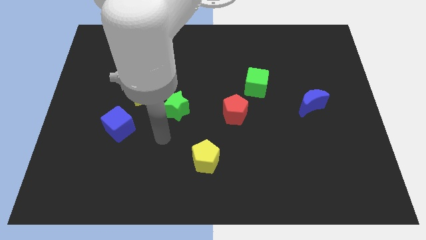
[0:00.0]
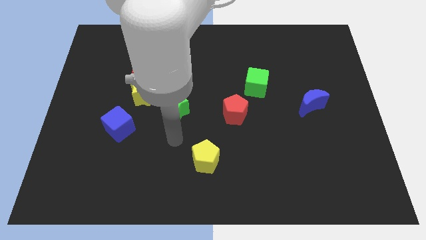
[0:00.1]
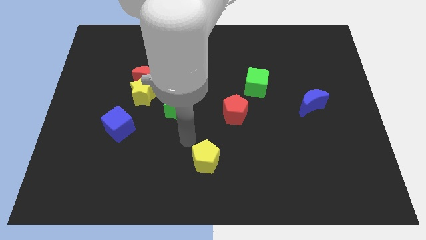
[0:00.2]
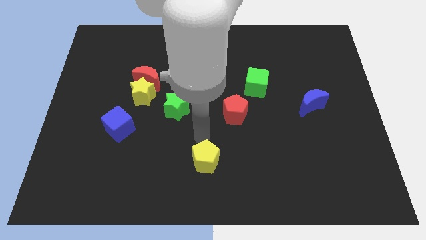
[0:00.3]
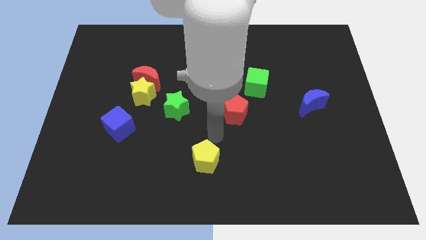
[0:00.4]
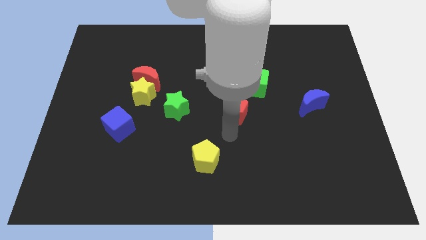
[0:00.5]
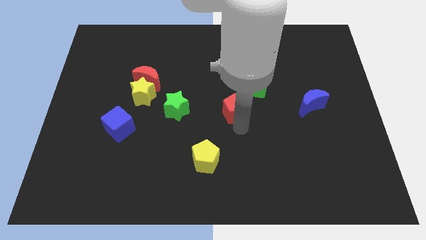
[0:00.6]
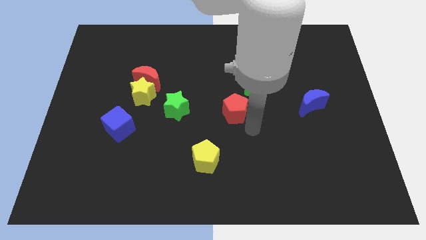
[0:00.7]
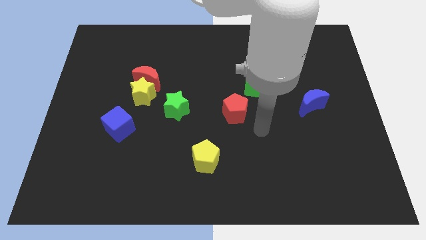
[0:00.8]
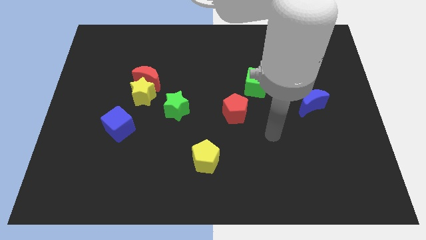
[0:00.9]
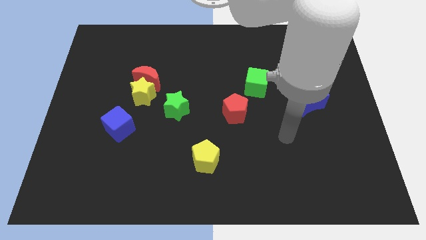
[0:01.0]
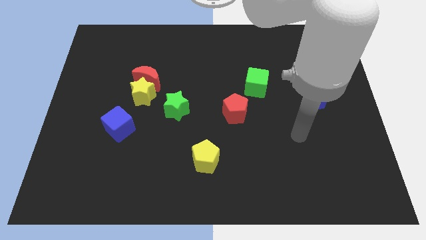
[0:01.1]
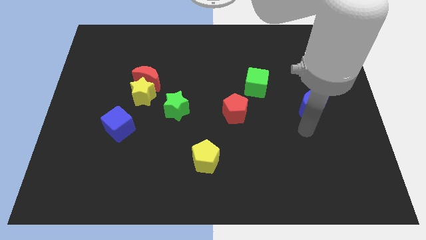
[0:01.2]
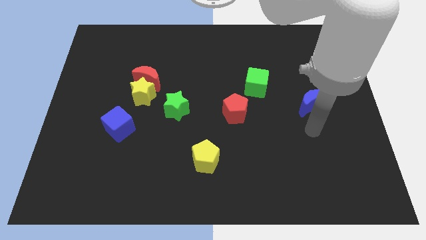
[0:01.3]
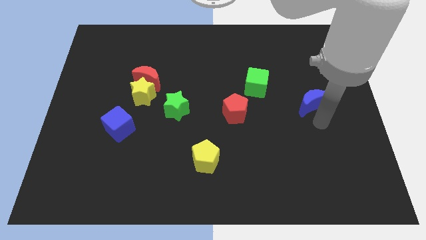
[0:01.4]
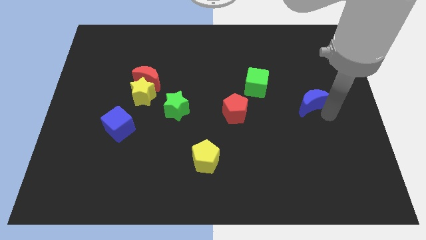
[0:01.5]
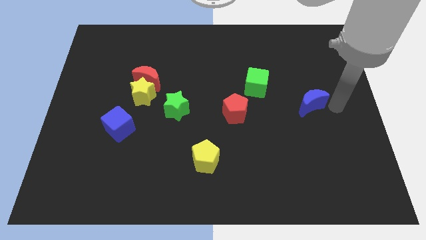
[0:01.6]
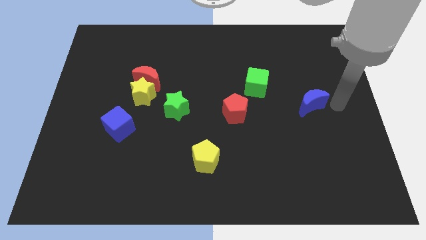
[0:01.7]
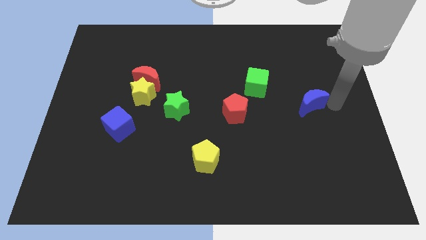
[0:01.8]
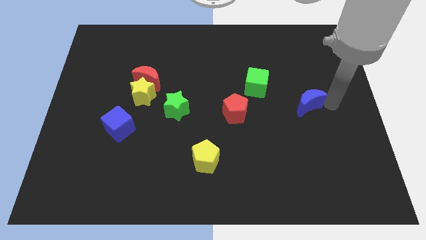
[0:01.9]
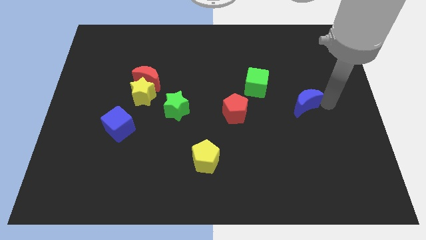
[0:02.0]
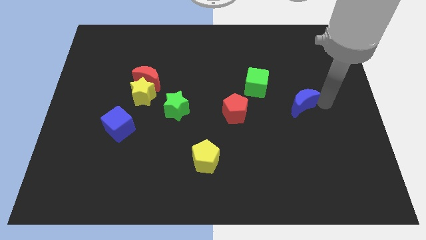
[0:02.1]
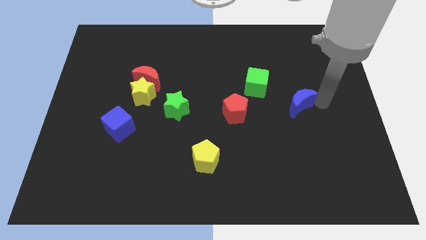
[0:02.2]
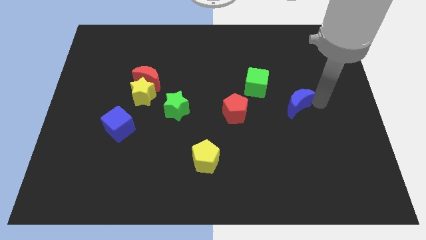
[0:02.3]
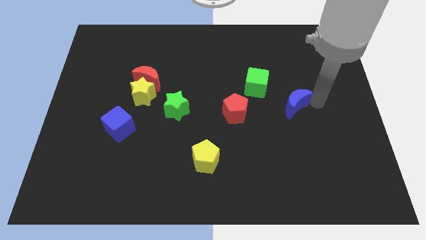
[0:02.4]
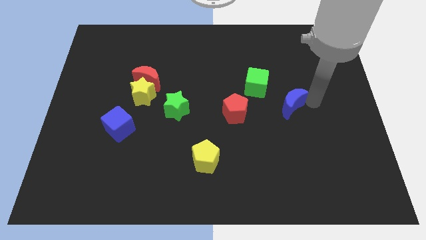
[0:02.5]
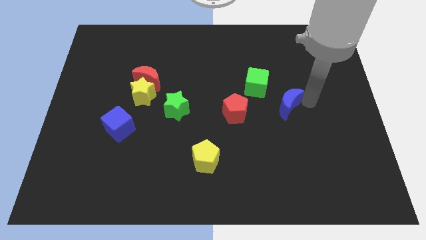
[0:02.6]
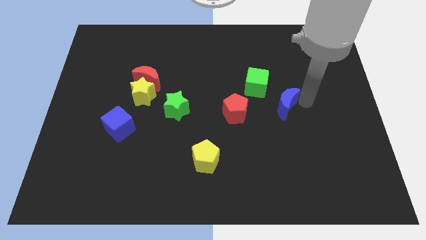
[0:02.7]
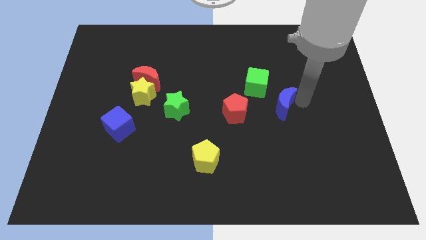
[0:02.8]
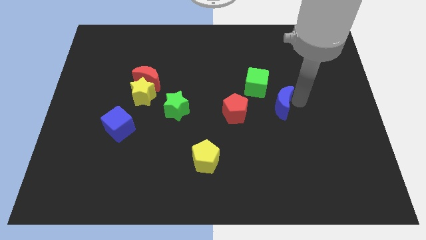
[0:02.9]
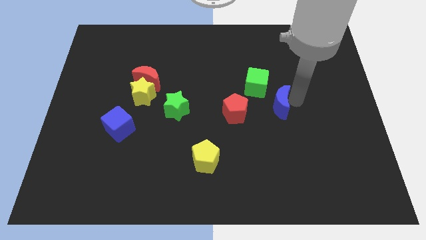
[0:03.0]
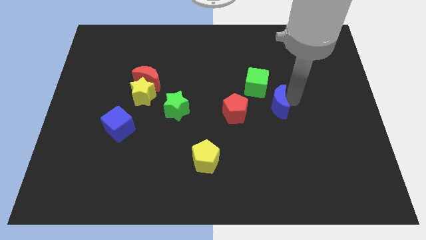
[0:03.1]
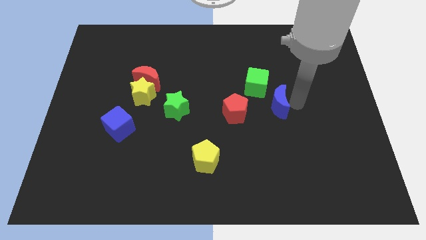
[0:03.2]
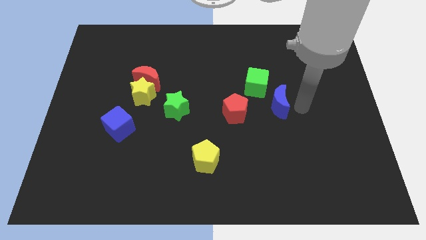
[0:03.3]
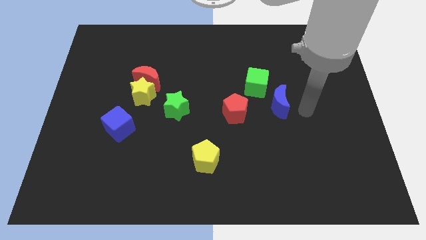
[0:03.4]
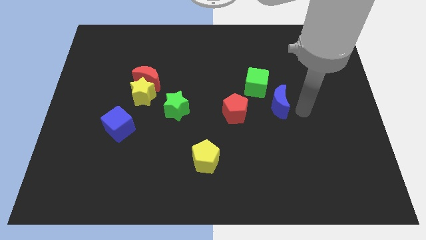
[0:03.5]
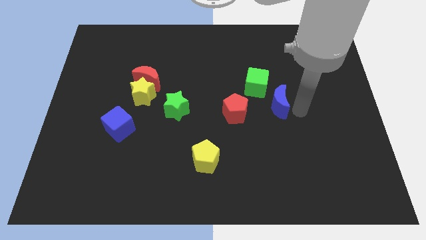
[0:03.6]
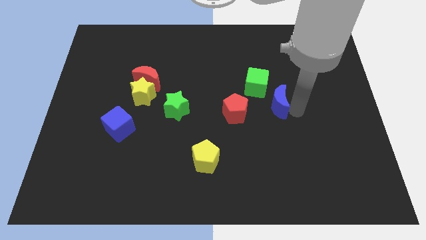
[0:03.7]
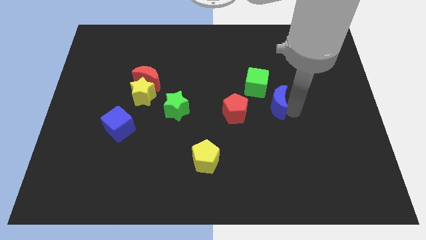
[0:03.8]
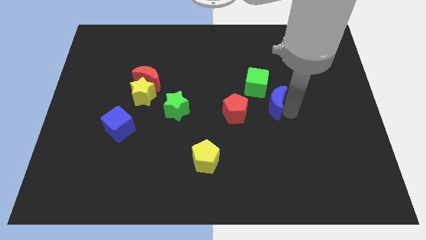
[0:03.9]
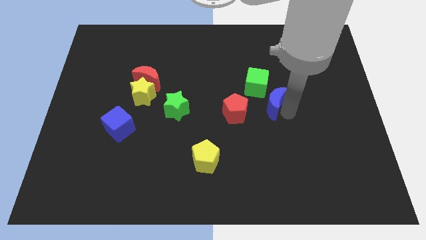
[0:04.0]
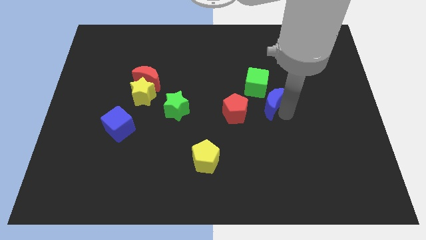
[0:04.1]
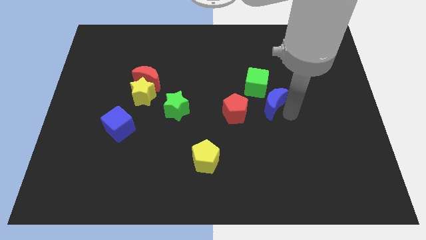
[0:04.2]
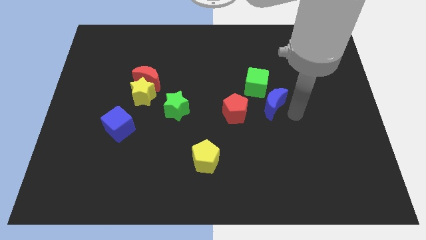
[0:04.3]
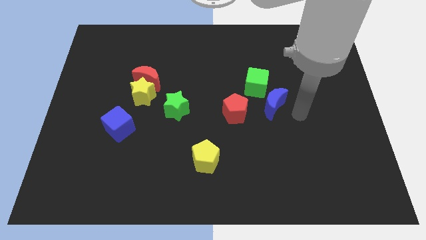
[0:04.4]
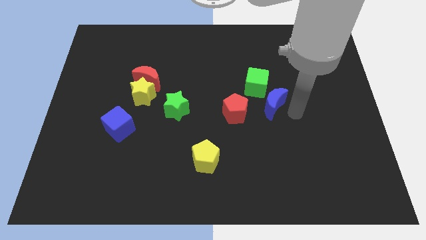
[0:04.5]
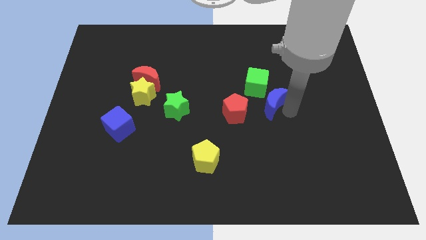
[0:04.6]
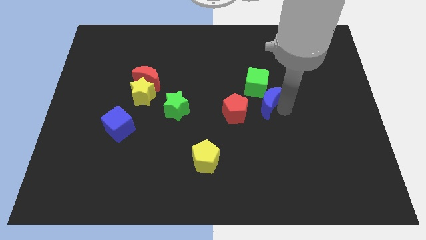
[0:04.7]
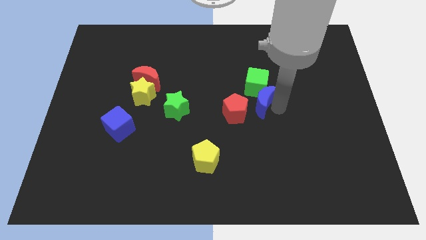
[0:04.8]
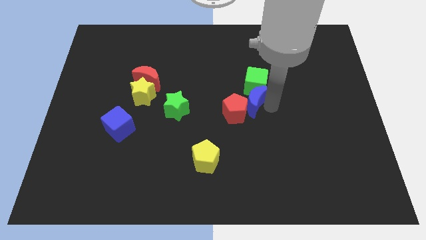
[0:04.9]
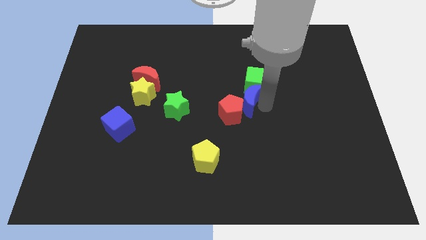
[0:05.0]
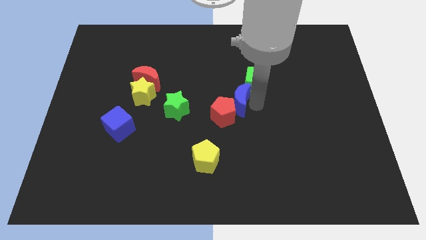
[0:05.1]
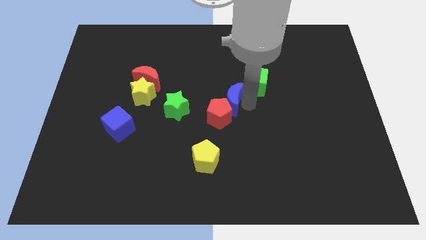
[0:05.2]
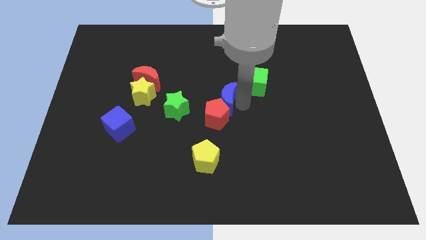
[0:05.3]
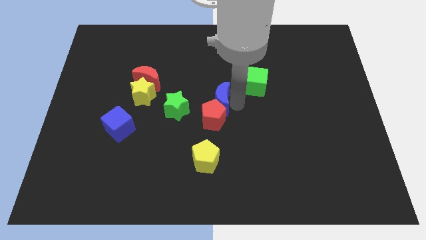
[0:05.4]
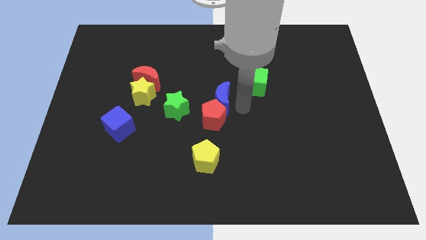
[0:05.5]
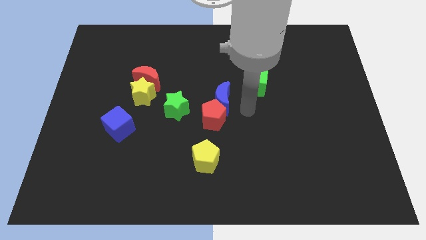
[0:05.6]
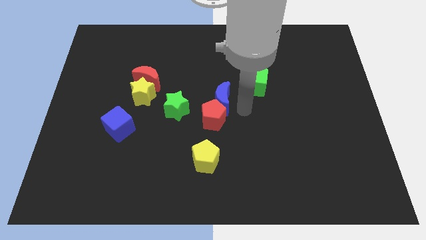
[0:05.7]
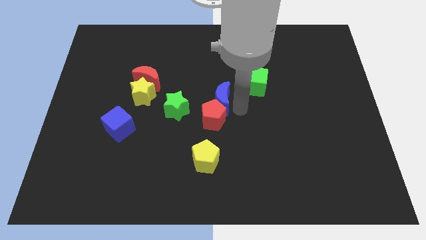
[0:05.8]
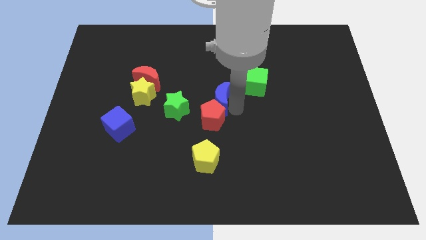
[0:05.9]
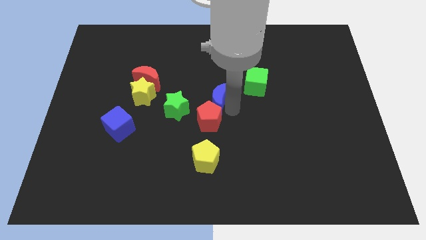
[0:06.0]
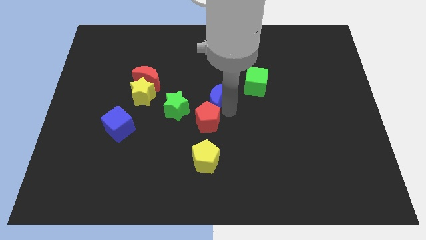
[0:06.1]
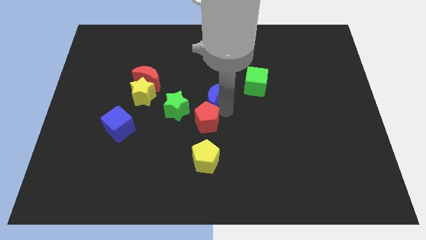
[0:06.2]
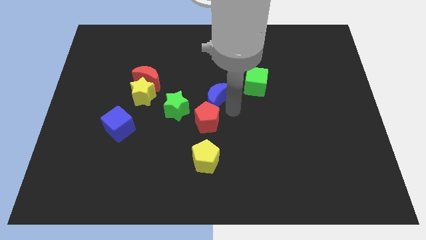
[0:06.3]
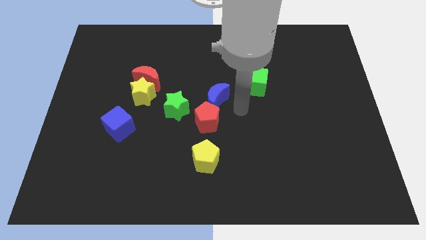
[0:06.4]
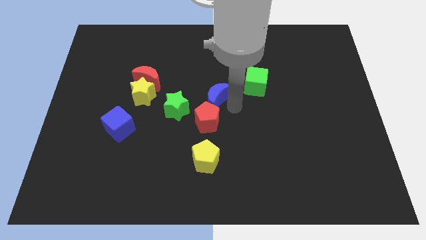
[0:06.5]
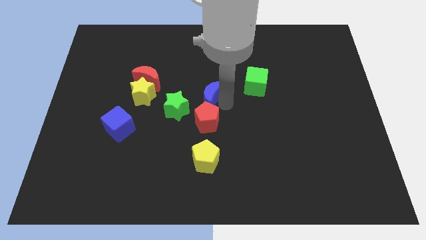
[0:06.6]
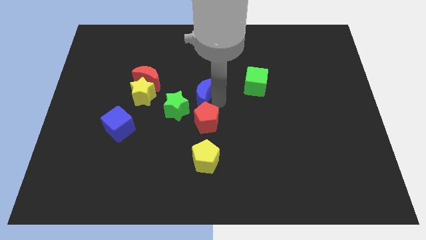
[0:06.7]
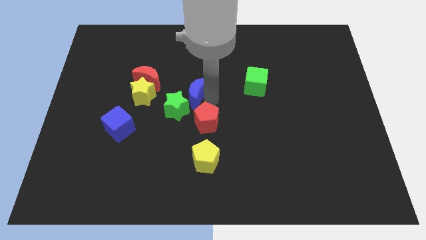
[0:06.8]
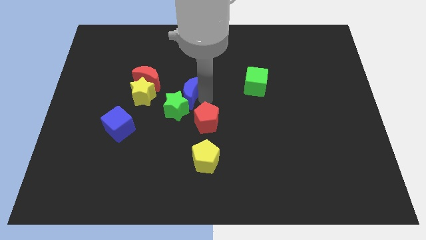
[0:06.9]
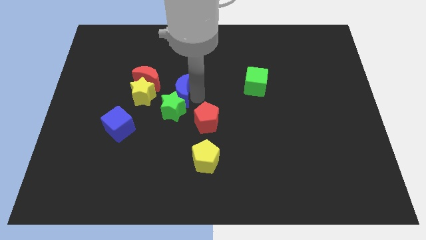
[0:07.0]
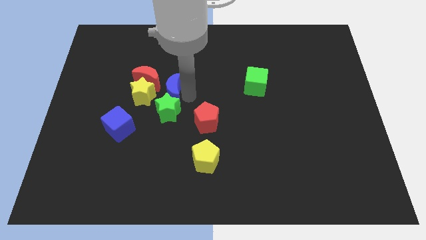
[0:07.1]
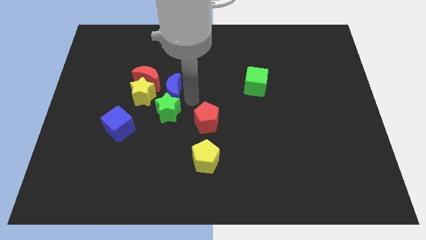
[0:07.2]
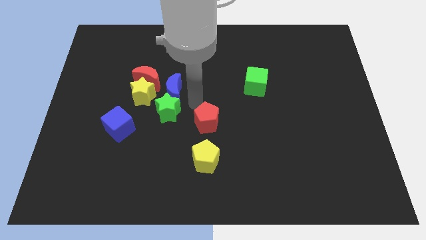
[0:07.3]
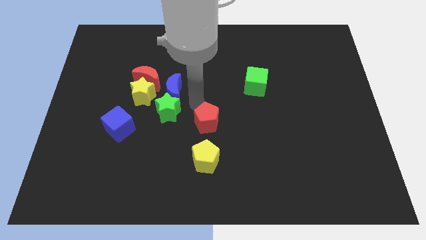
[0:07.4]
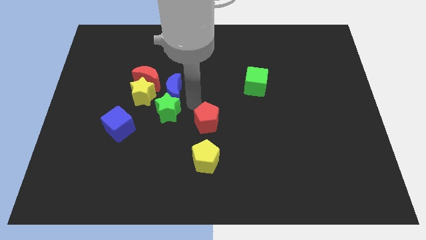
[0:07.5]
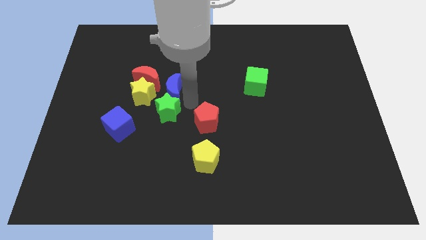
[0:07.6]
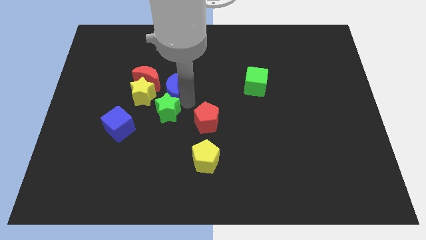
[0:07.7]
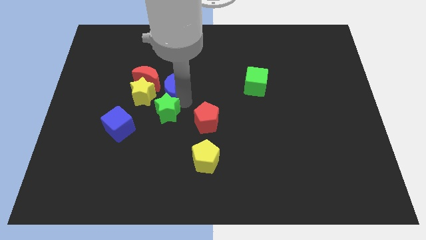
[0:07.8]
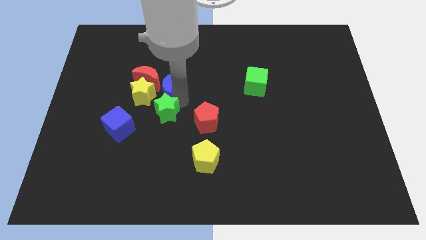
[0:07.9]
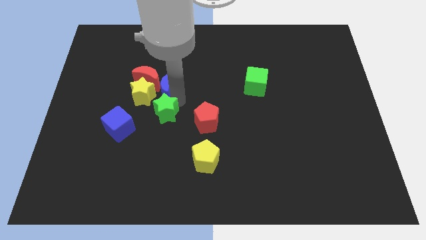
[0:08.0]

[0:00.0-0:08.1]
slide the blue moon towards the red moon
